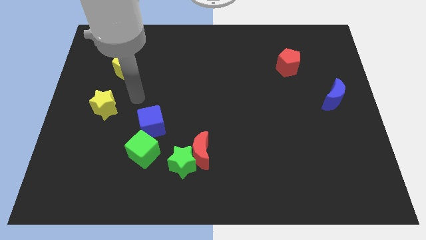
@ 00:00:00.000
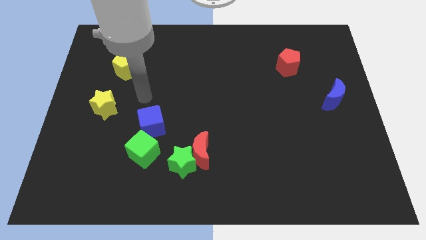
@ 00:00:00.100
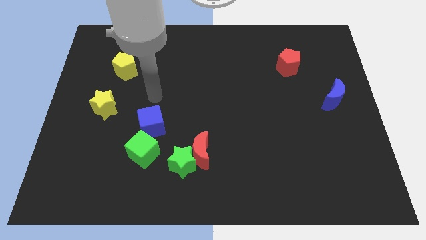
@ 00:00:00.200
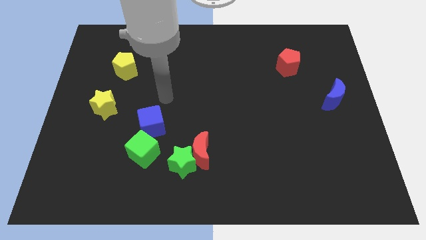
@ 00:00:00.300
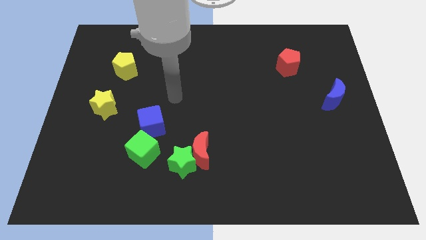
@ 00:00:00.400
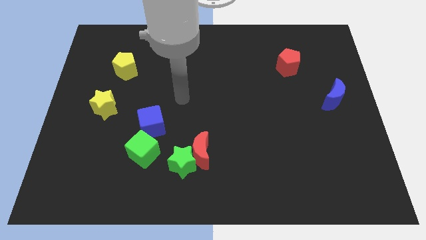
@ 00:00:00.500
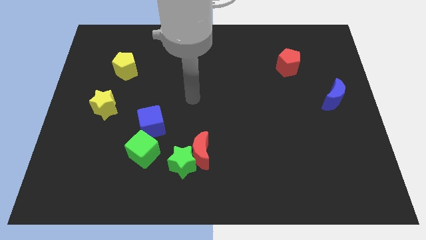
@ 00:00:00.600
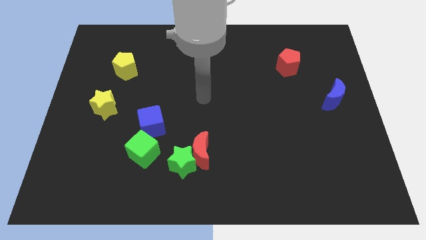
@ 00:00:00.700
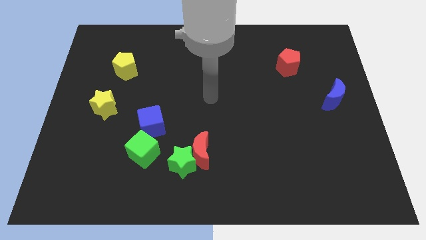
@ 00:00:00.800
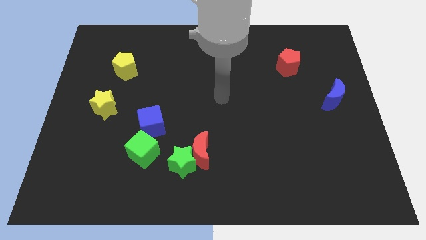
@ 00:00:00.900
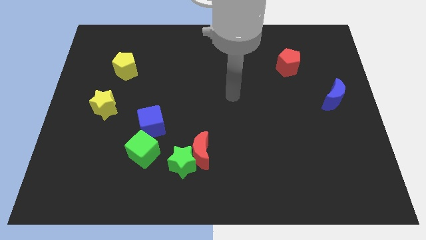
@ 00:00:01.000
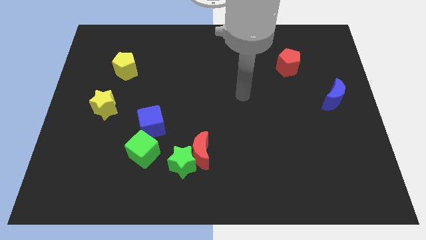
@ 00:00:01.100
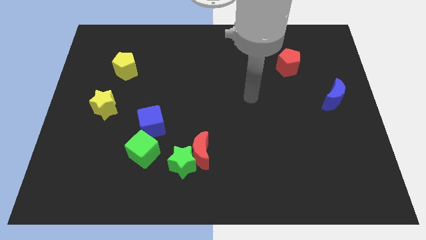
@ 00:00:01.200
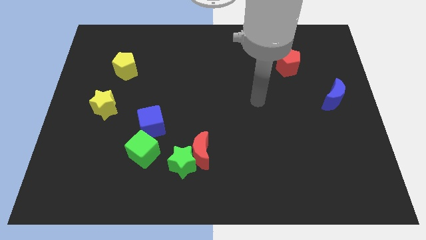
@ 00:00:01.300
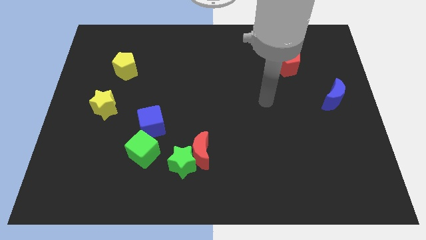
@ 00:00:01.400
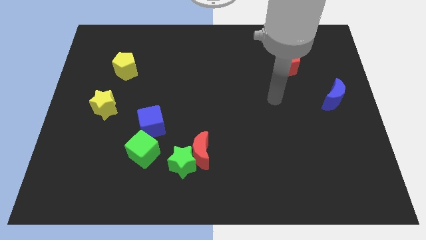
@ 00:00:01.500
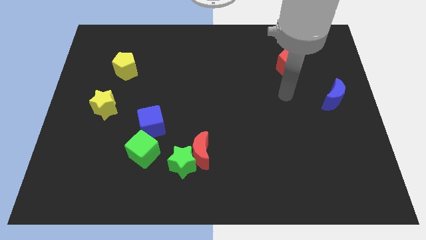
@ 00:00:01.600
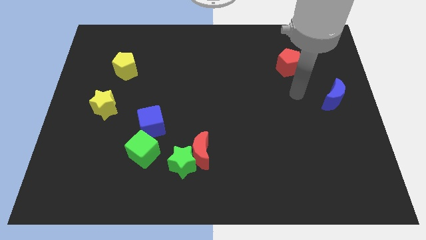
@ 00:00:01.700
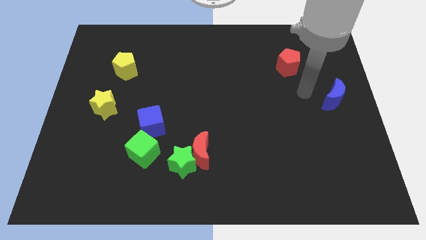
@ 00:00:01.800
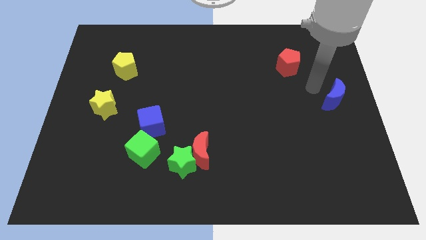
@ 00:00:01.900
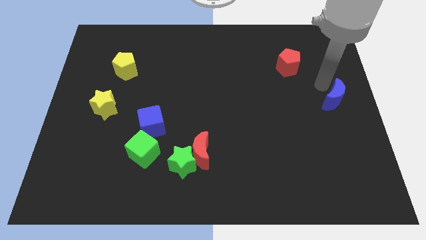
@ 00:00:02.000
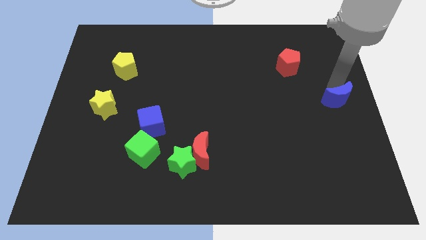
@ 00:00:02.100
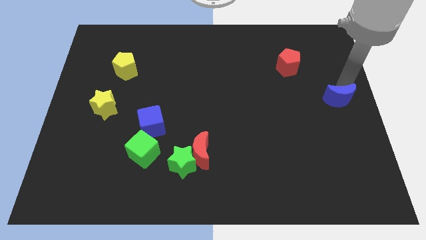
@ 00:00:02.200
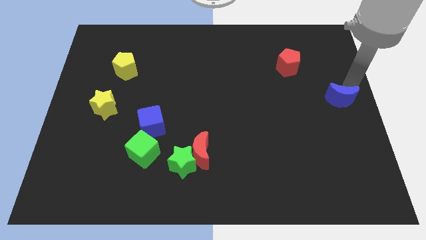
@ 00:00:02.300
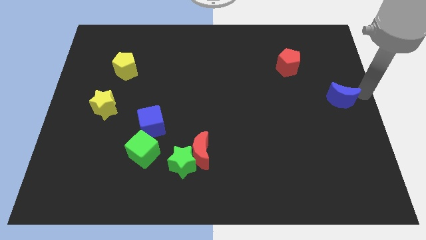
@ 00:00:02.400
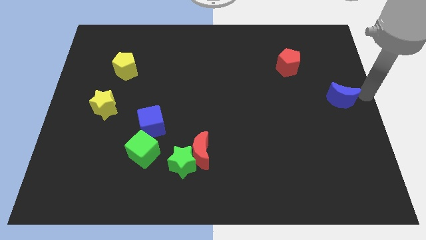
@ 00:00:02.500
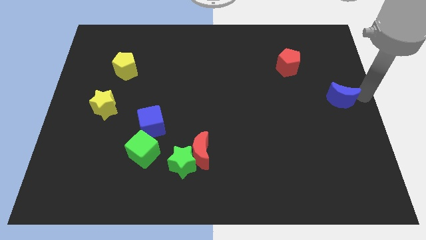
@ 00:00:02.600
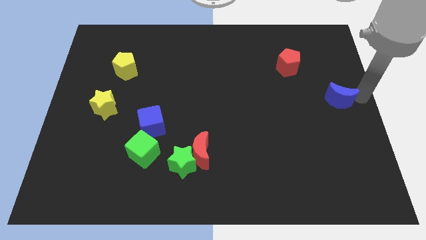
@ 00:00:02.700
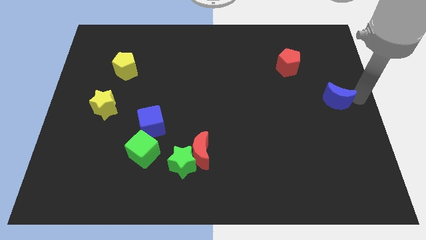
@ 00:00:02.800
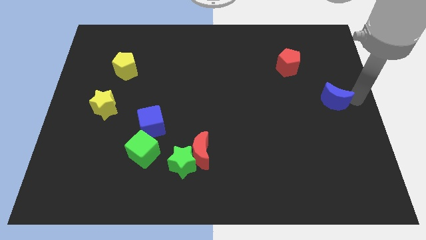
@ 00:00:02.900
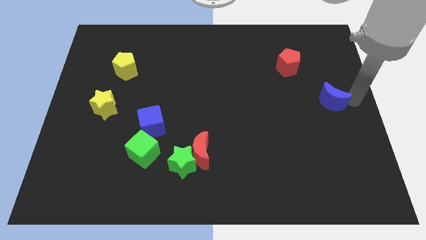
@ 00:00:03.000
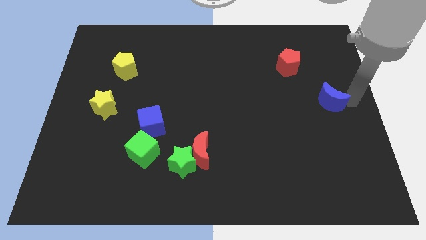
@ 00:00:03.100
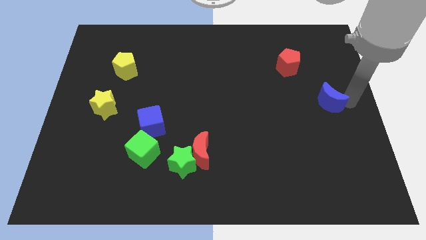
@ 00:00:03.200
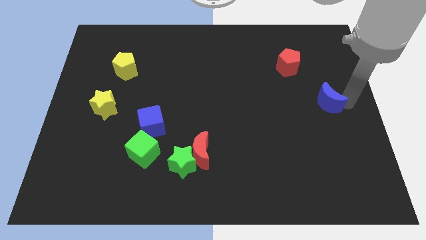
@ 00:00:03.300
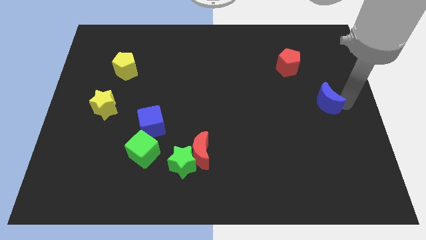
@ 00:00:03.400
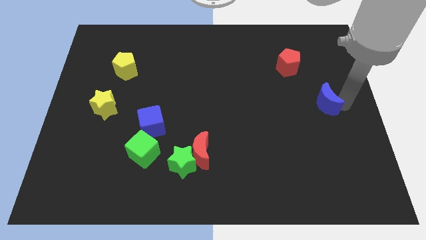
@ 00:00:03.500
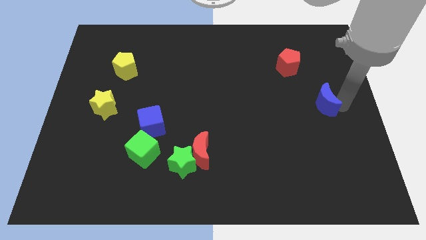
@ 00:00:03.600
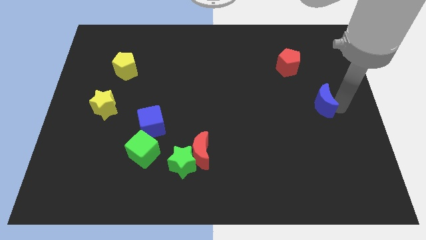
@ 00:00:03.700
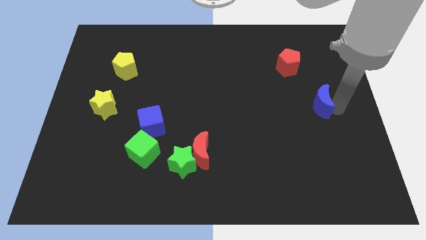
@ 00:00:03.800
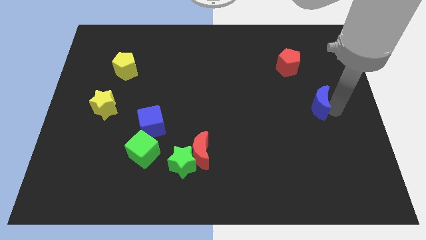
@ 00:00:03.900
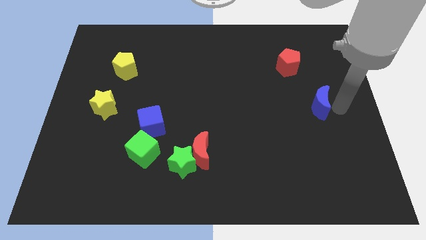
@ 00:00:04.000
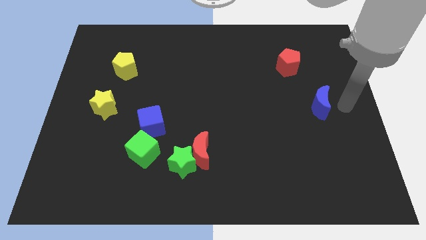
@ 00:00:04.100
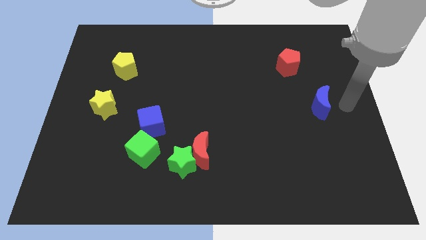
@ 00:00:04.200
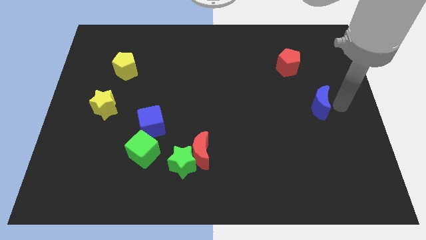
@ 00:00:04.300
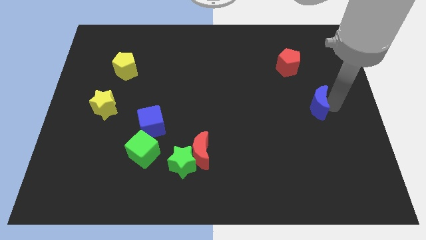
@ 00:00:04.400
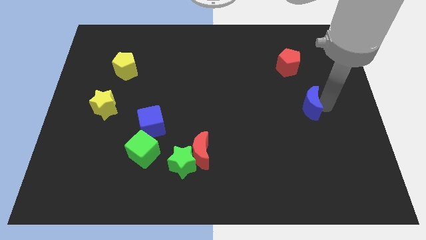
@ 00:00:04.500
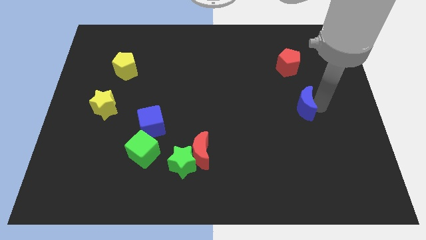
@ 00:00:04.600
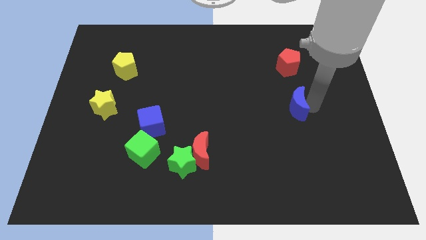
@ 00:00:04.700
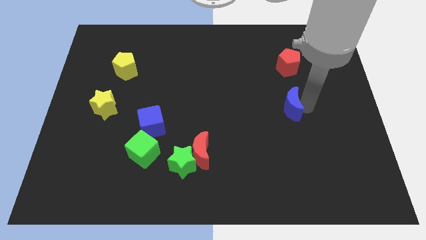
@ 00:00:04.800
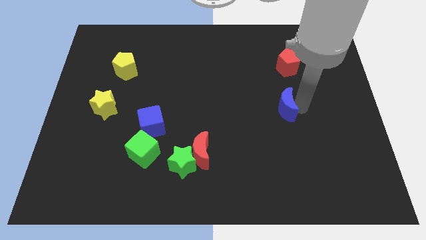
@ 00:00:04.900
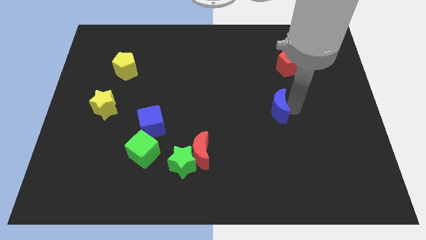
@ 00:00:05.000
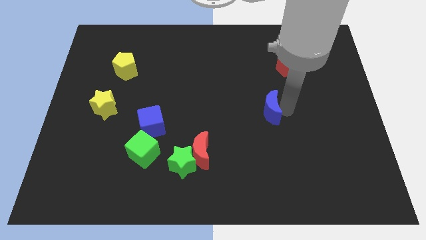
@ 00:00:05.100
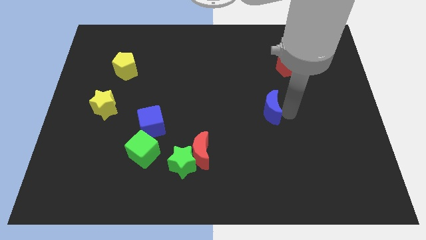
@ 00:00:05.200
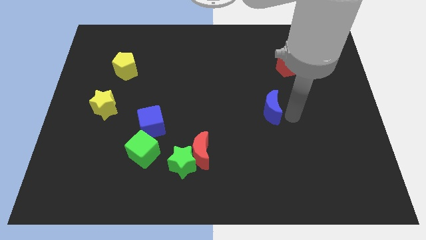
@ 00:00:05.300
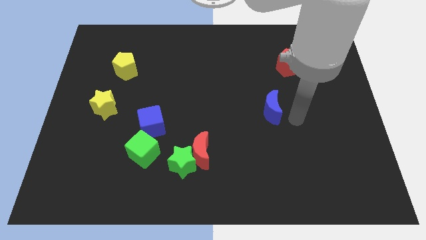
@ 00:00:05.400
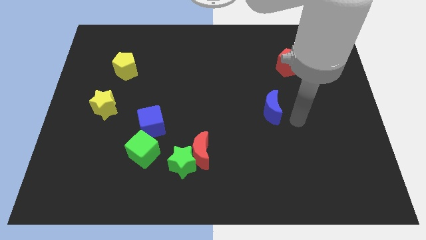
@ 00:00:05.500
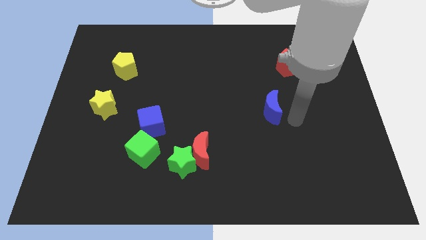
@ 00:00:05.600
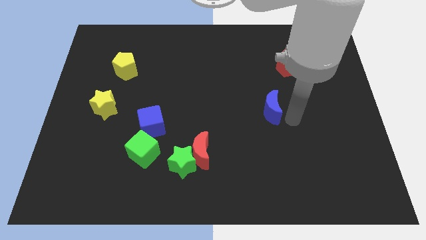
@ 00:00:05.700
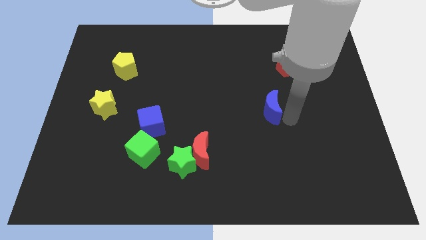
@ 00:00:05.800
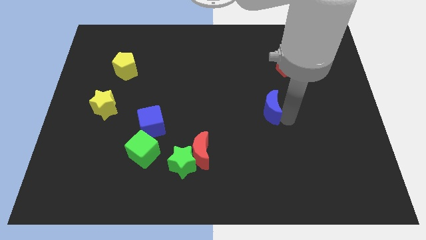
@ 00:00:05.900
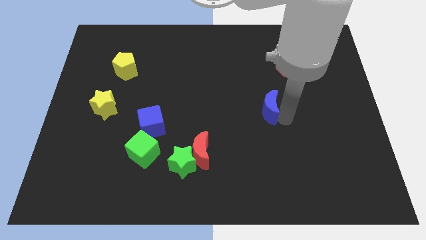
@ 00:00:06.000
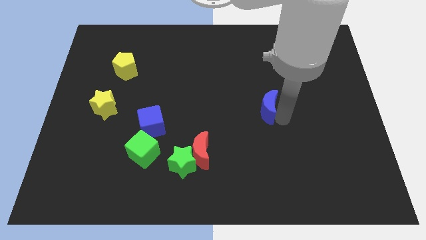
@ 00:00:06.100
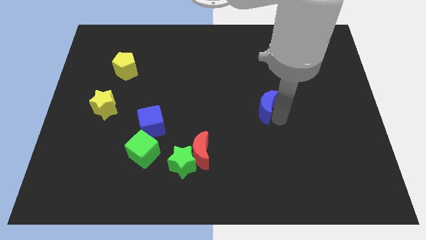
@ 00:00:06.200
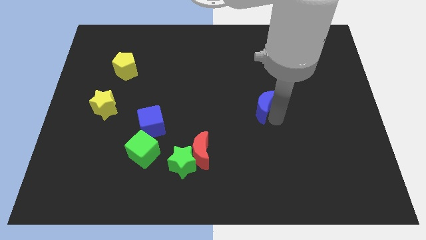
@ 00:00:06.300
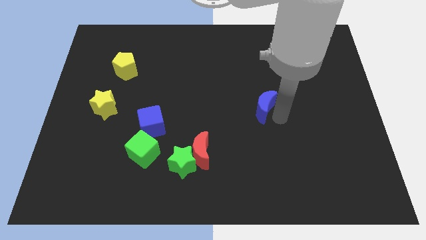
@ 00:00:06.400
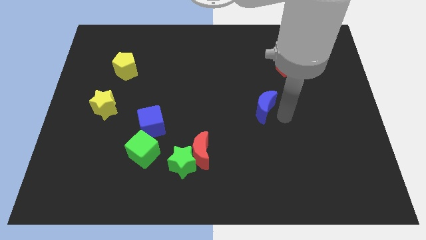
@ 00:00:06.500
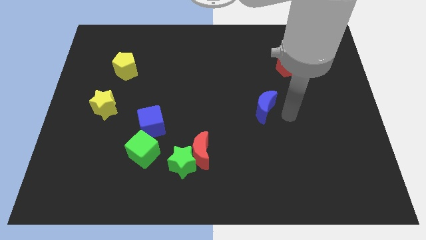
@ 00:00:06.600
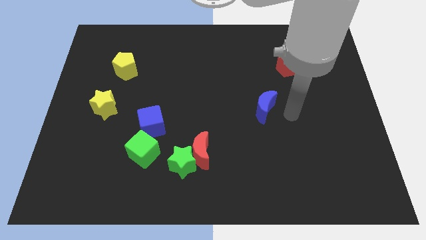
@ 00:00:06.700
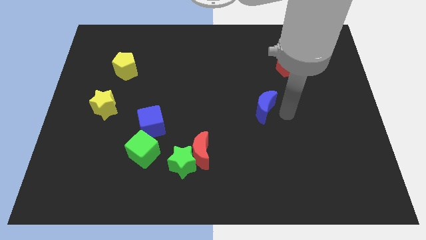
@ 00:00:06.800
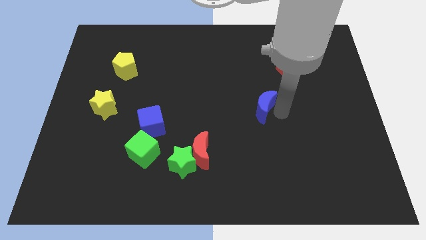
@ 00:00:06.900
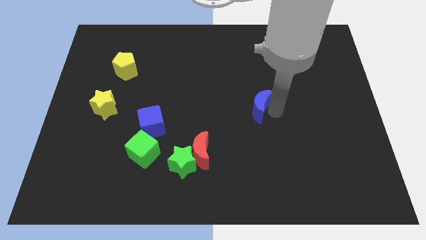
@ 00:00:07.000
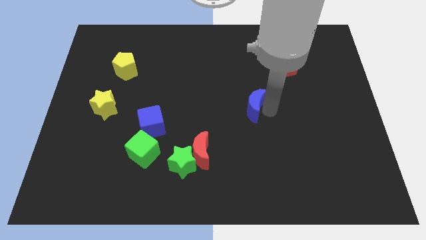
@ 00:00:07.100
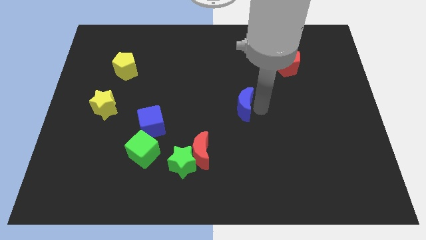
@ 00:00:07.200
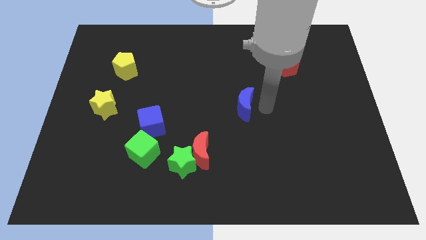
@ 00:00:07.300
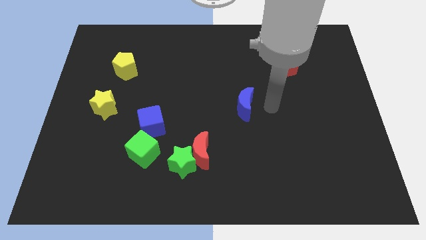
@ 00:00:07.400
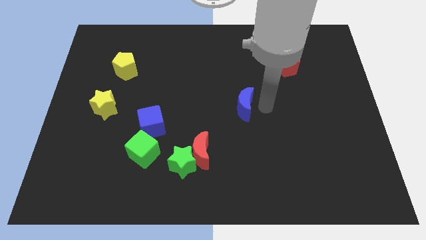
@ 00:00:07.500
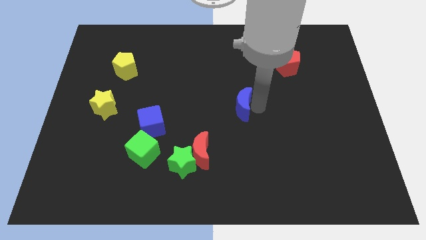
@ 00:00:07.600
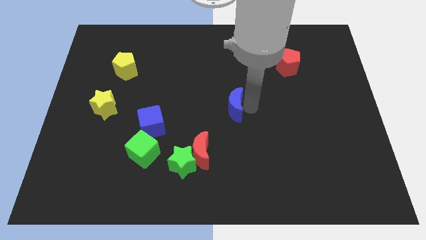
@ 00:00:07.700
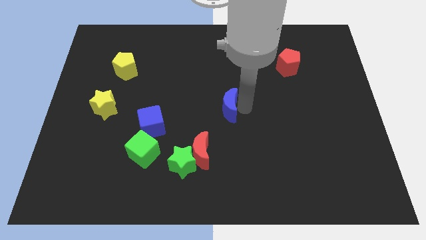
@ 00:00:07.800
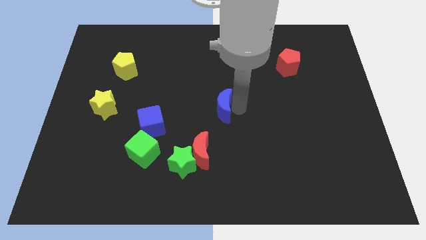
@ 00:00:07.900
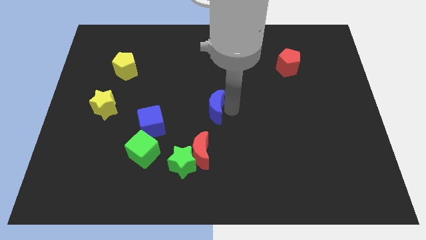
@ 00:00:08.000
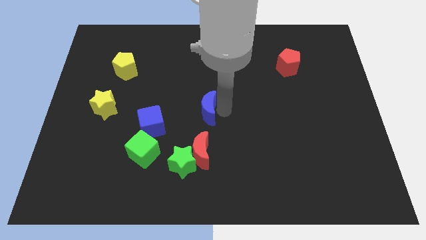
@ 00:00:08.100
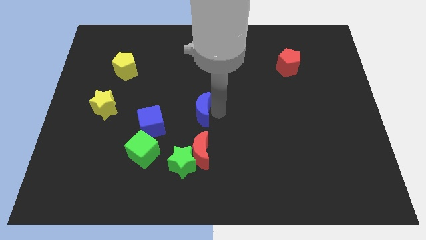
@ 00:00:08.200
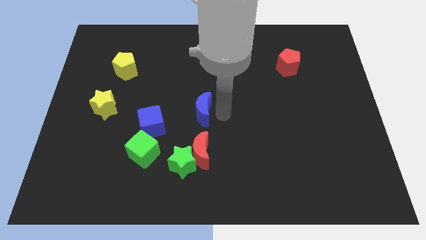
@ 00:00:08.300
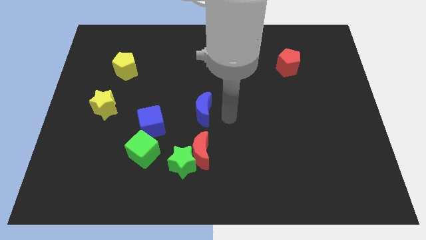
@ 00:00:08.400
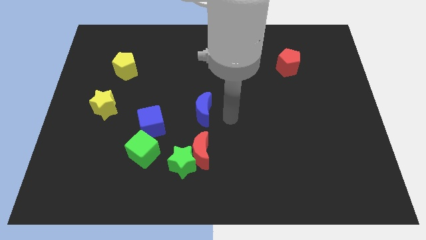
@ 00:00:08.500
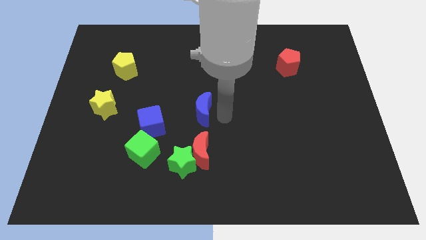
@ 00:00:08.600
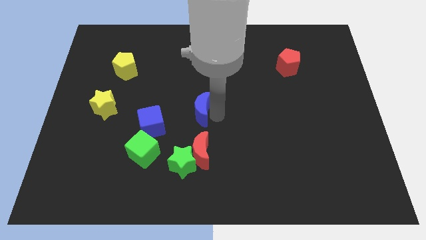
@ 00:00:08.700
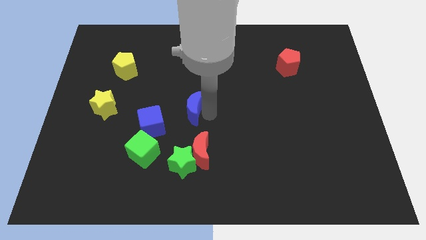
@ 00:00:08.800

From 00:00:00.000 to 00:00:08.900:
move the blue moon to the top right of the blue cube
